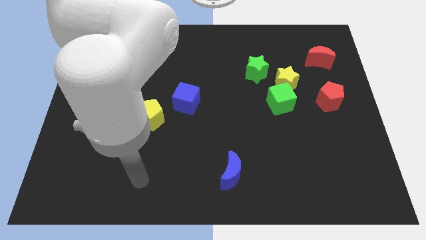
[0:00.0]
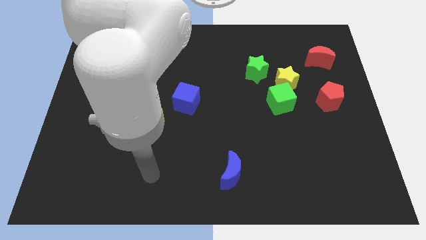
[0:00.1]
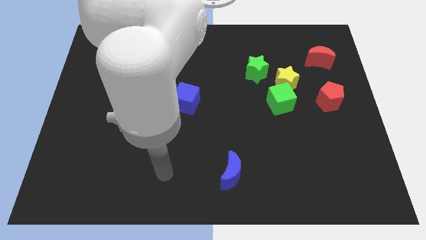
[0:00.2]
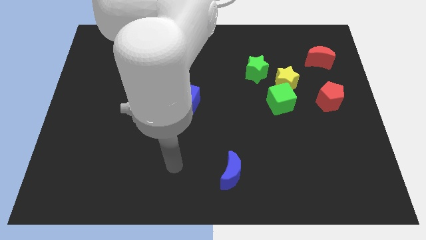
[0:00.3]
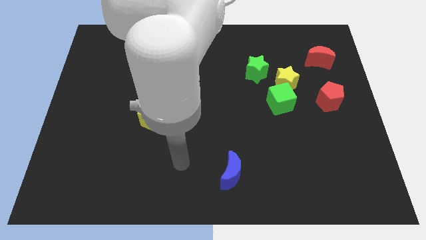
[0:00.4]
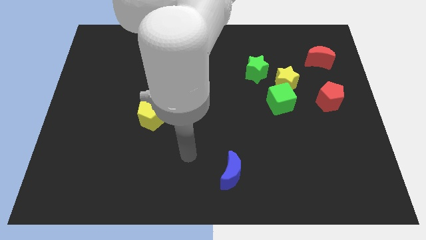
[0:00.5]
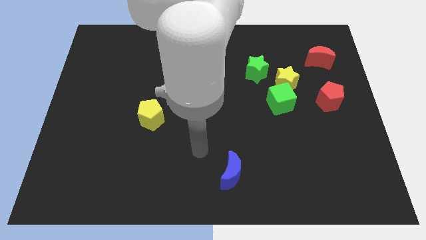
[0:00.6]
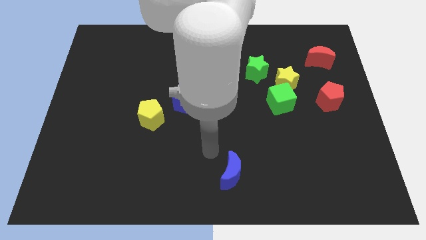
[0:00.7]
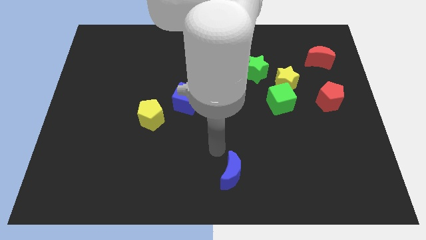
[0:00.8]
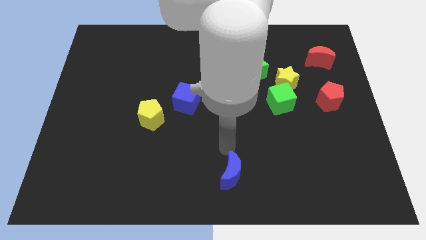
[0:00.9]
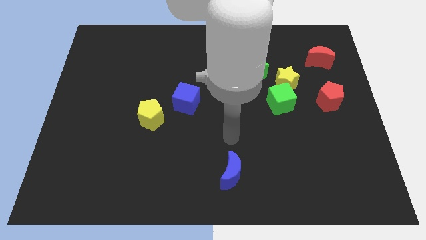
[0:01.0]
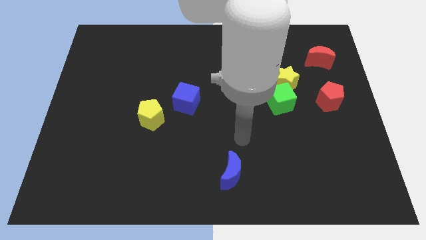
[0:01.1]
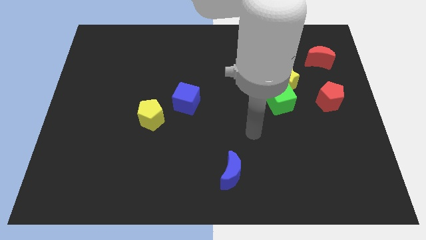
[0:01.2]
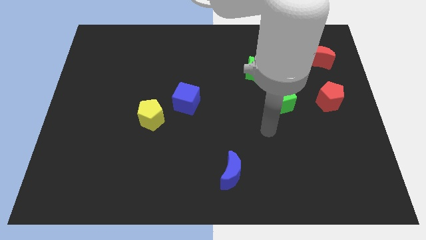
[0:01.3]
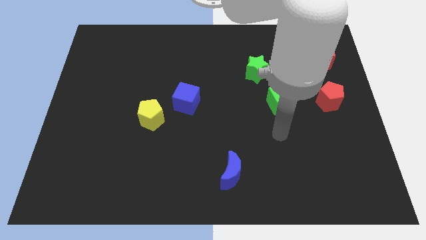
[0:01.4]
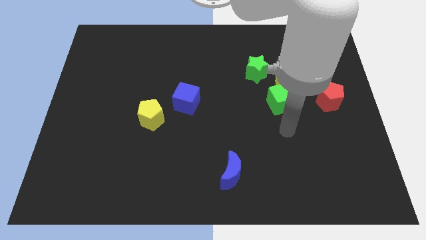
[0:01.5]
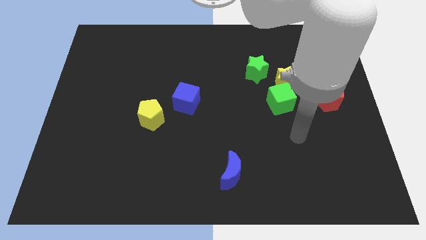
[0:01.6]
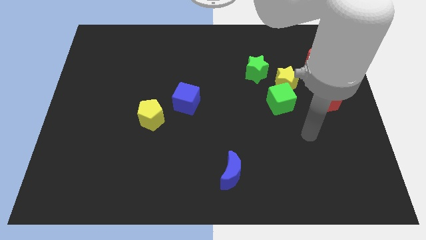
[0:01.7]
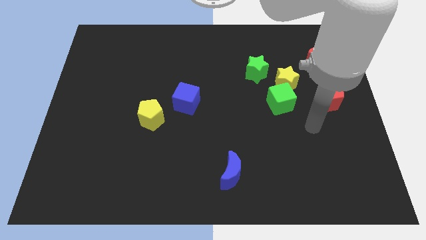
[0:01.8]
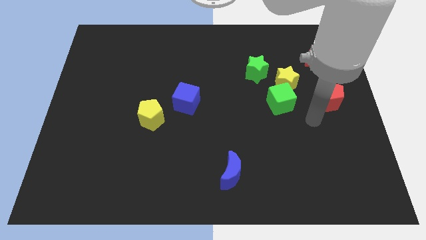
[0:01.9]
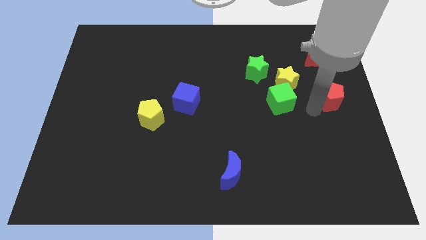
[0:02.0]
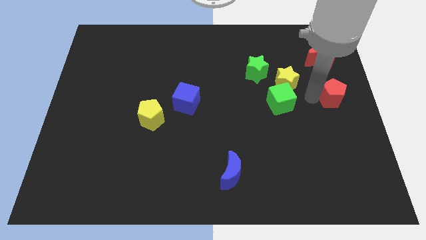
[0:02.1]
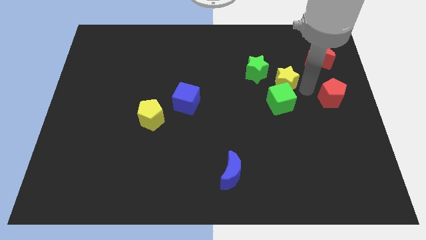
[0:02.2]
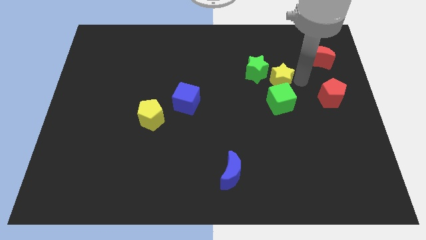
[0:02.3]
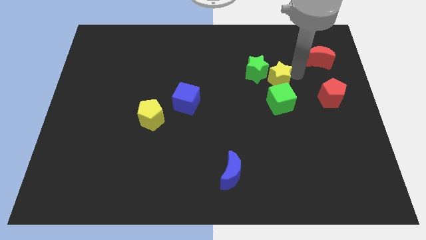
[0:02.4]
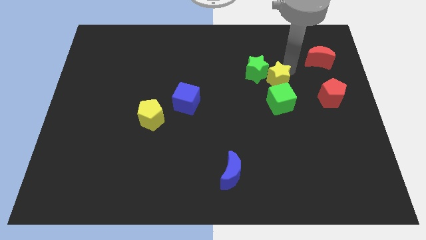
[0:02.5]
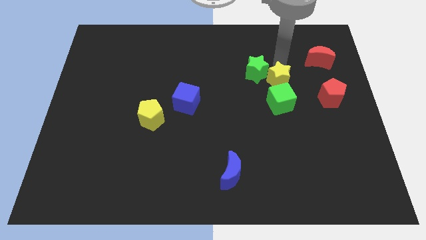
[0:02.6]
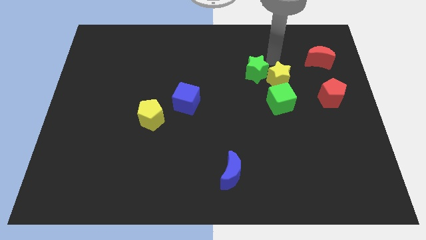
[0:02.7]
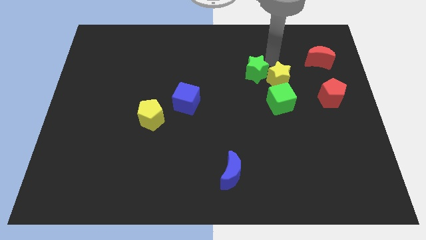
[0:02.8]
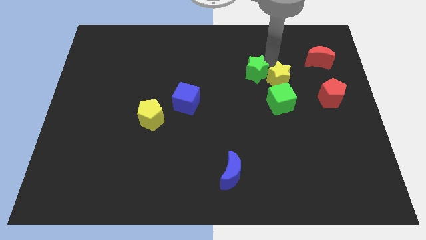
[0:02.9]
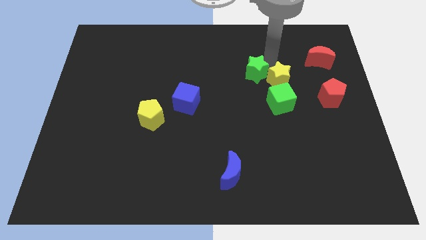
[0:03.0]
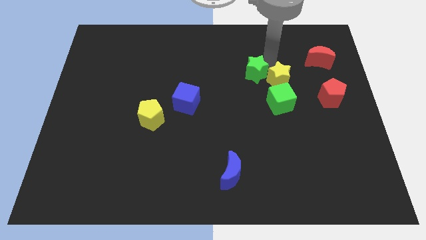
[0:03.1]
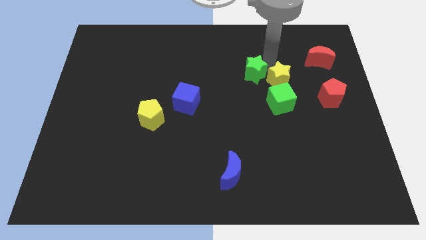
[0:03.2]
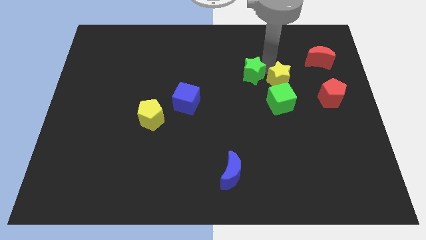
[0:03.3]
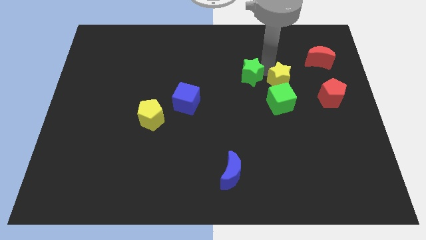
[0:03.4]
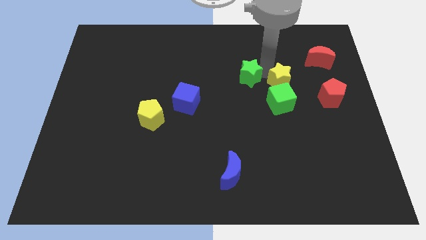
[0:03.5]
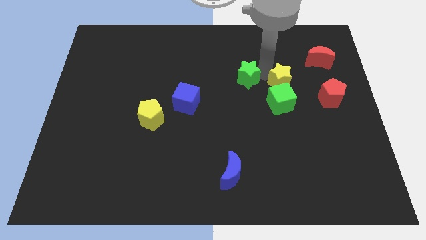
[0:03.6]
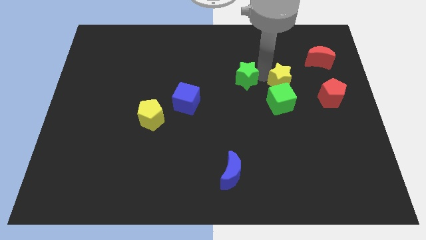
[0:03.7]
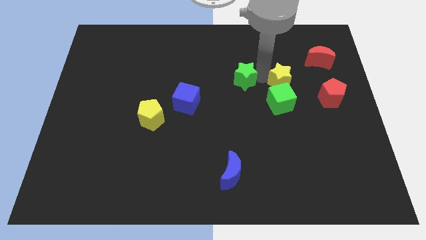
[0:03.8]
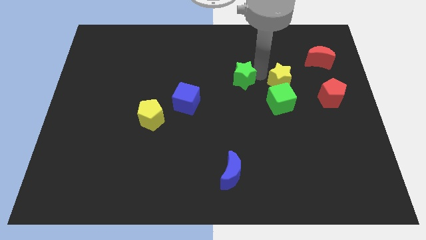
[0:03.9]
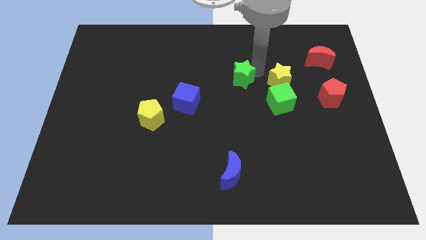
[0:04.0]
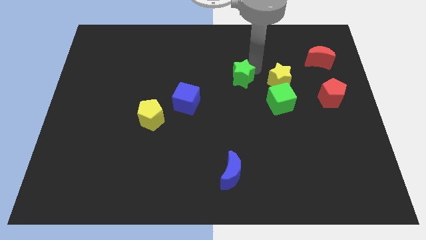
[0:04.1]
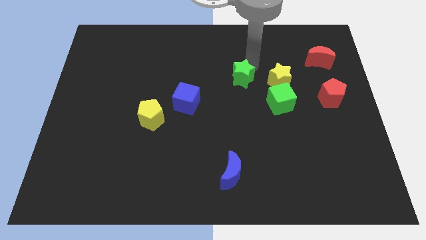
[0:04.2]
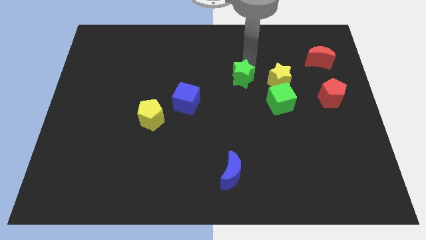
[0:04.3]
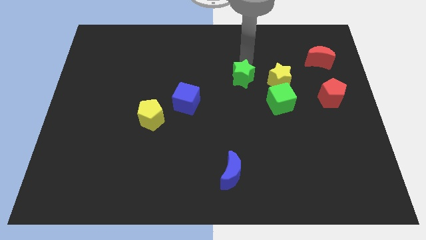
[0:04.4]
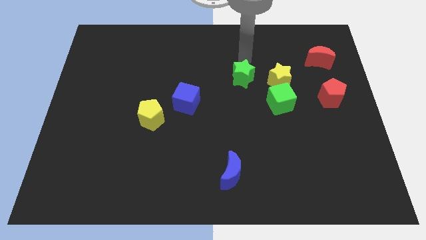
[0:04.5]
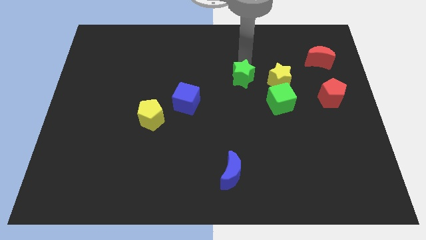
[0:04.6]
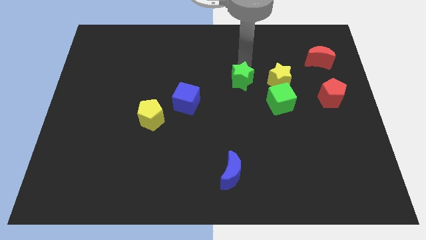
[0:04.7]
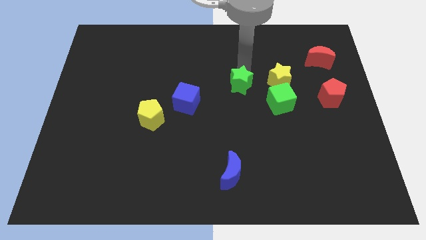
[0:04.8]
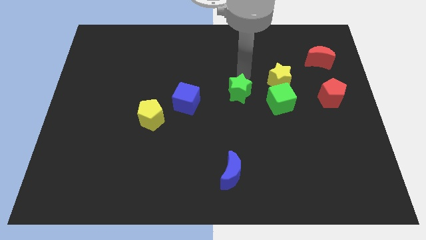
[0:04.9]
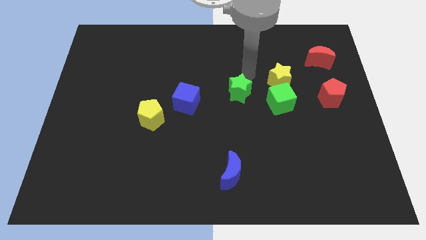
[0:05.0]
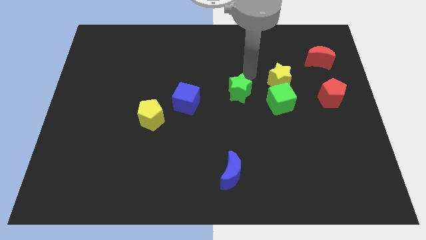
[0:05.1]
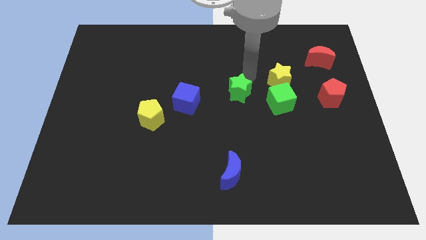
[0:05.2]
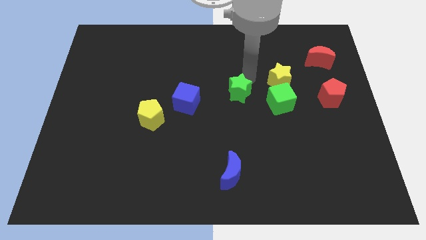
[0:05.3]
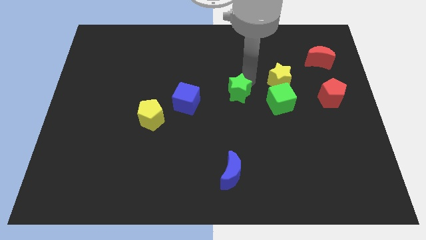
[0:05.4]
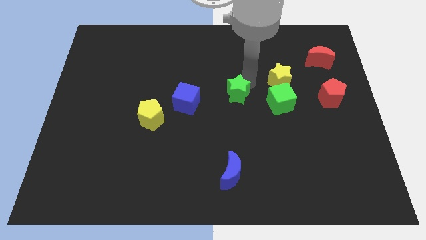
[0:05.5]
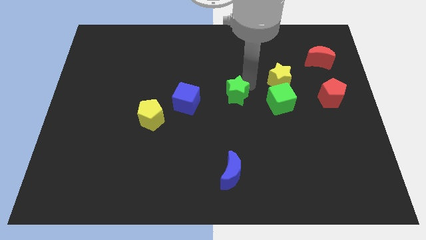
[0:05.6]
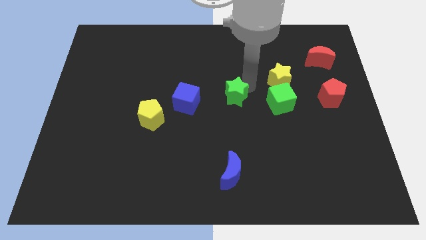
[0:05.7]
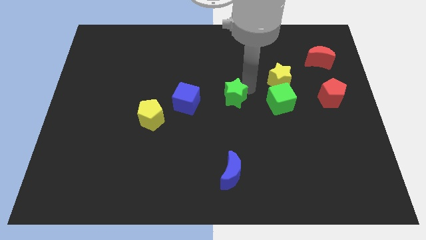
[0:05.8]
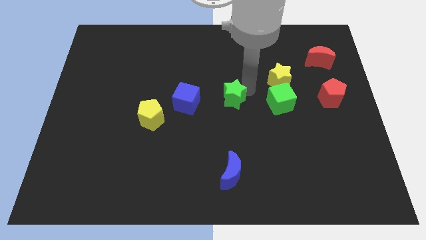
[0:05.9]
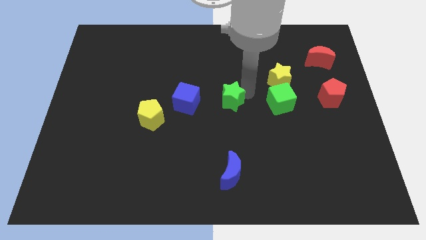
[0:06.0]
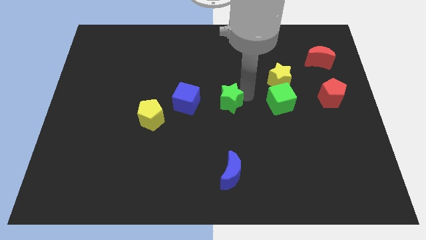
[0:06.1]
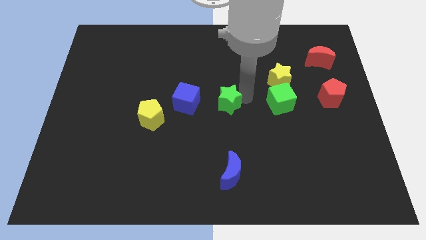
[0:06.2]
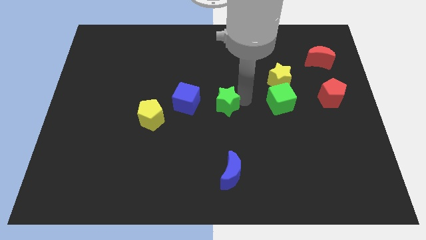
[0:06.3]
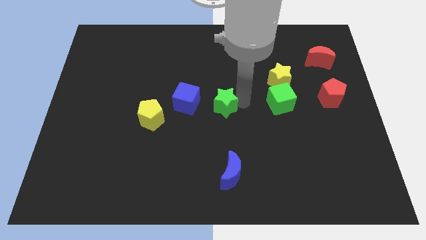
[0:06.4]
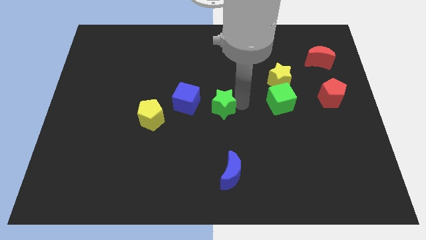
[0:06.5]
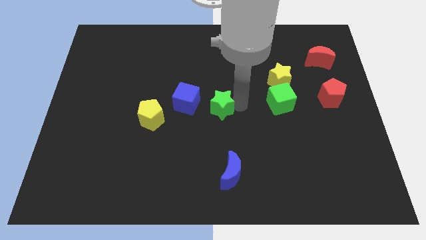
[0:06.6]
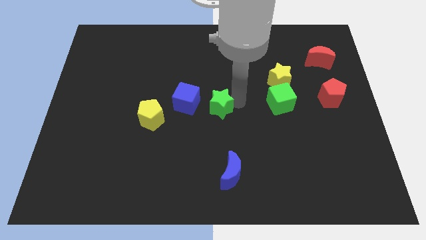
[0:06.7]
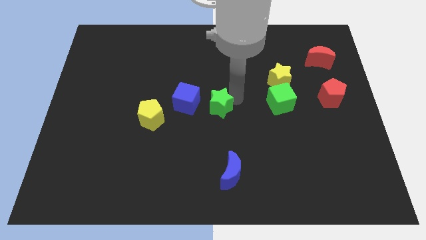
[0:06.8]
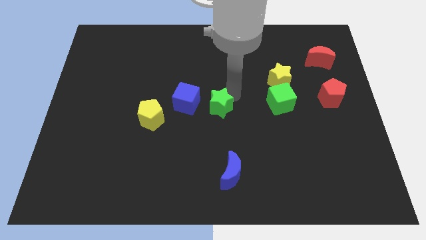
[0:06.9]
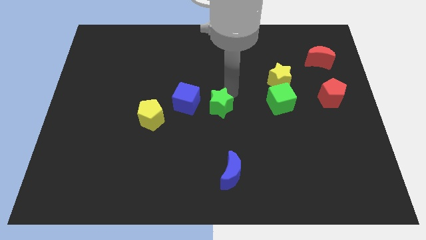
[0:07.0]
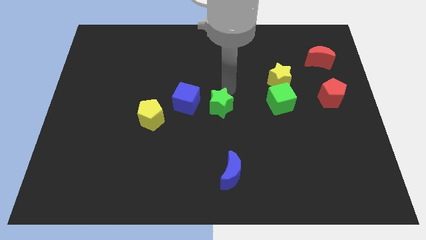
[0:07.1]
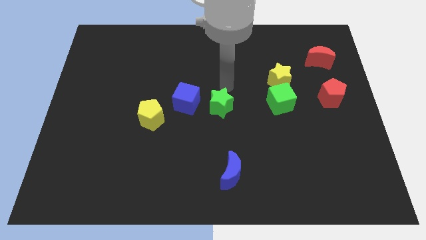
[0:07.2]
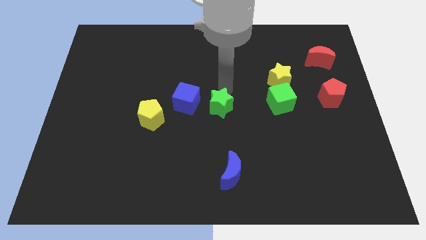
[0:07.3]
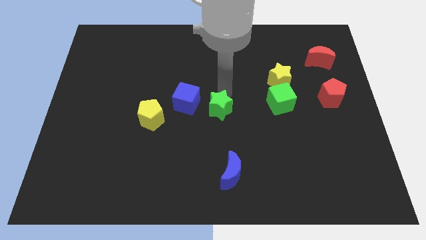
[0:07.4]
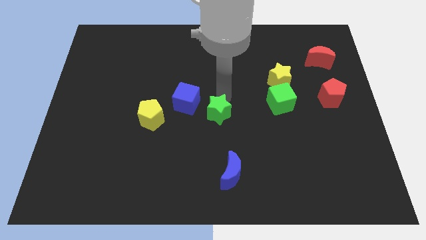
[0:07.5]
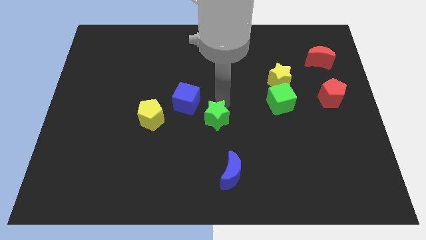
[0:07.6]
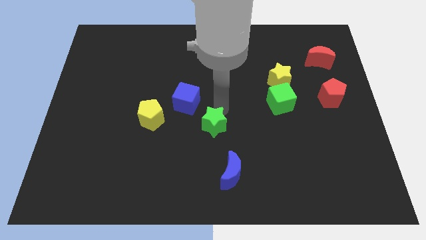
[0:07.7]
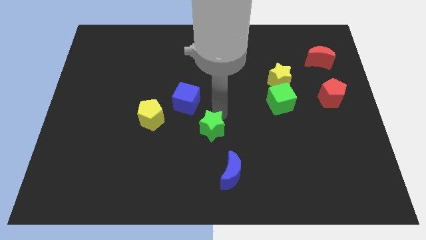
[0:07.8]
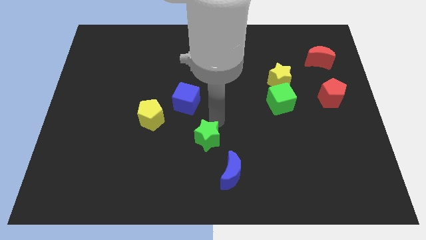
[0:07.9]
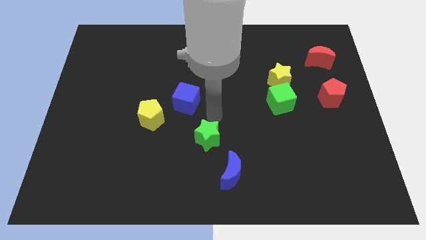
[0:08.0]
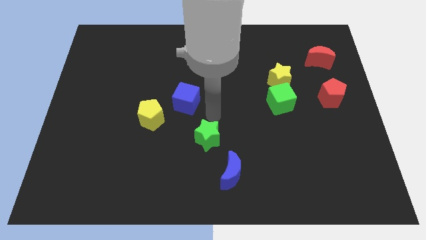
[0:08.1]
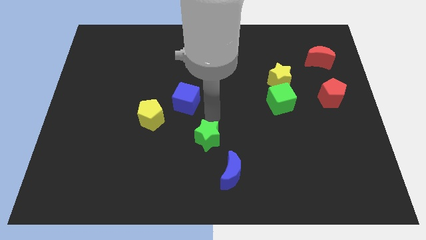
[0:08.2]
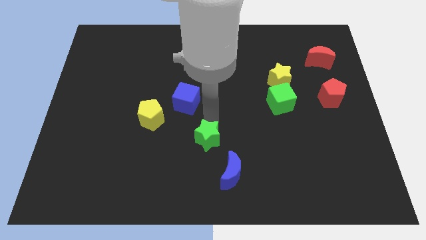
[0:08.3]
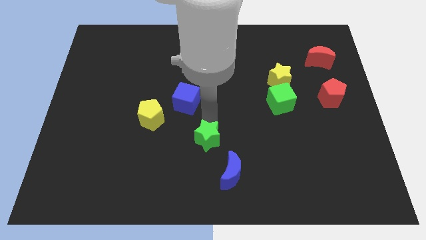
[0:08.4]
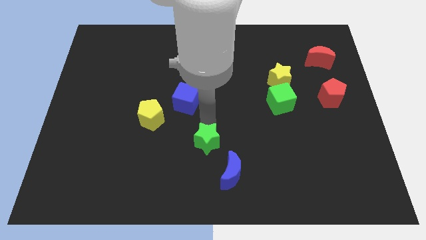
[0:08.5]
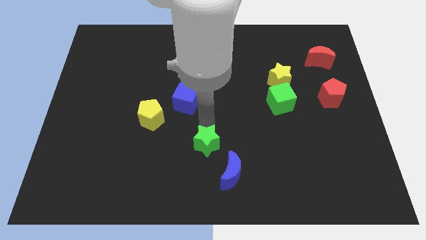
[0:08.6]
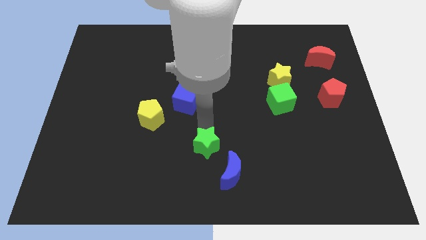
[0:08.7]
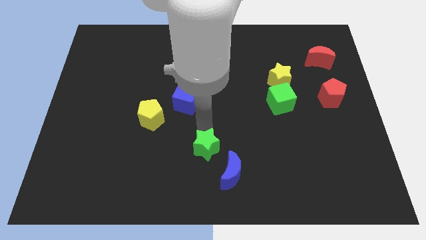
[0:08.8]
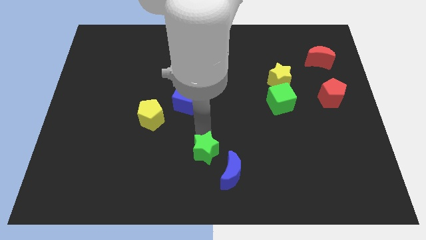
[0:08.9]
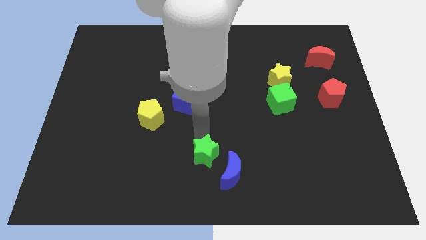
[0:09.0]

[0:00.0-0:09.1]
slide the green star to the bottom side
